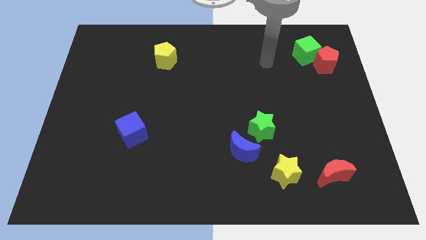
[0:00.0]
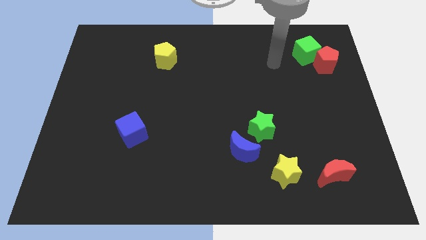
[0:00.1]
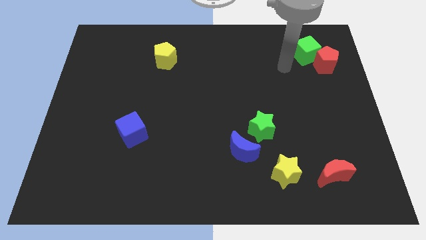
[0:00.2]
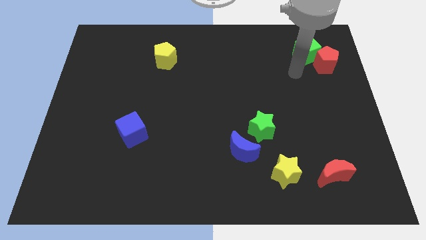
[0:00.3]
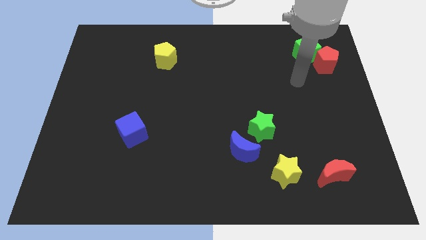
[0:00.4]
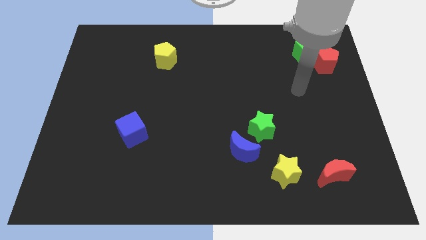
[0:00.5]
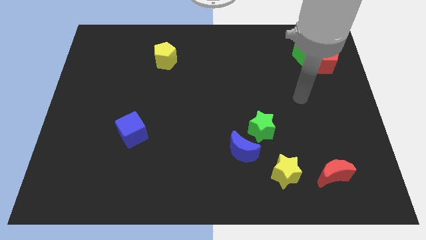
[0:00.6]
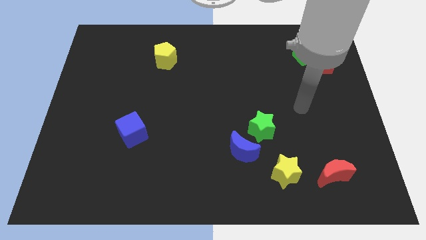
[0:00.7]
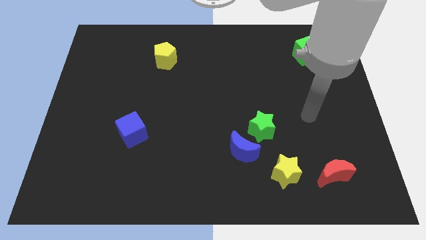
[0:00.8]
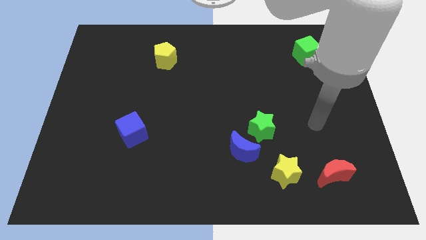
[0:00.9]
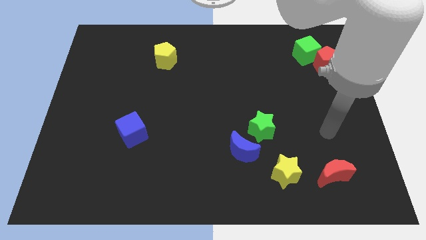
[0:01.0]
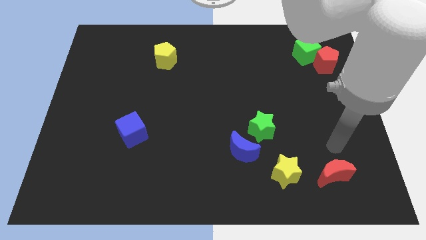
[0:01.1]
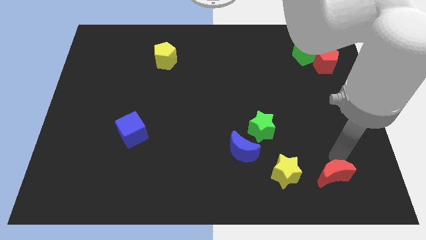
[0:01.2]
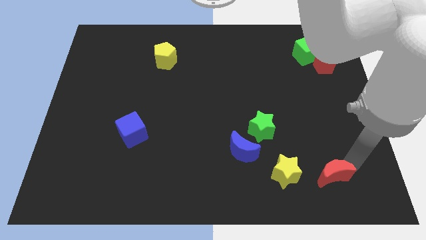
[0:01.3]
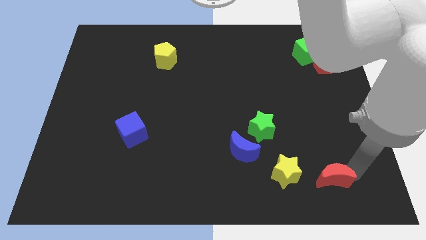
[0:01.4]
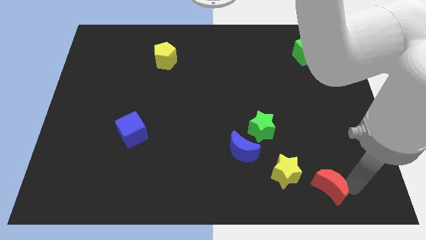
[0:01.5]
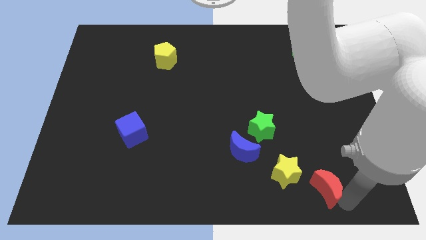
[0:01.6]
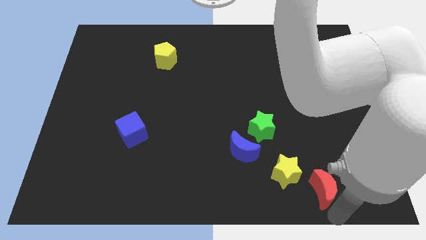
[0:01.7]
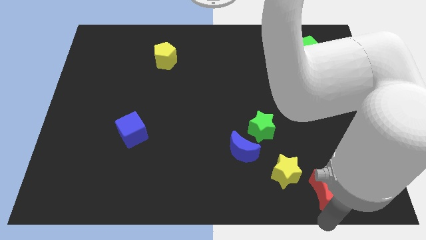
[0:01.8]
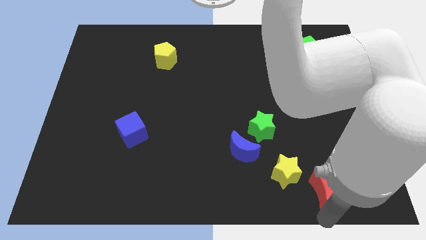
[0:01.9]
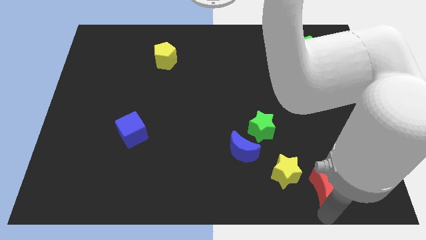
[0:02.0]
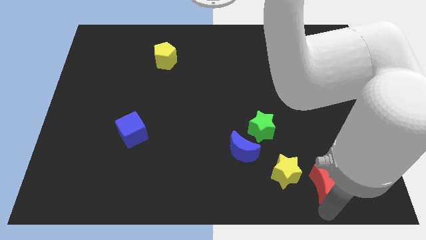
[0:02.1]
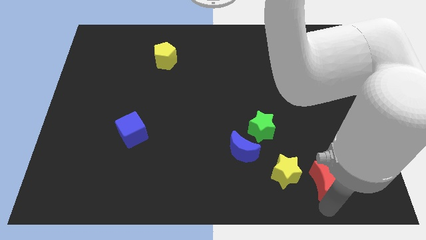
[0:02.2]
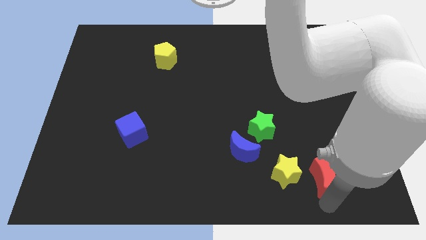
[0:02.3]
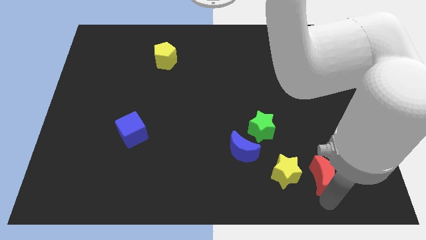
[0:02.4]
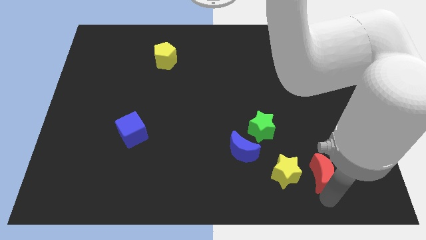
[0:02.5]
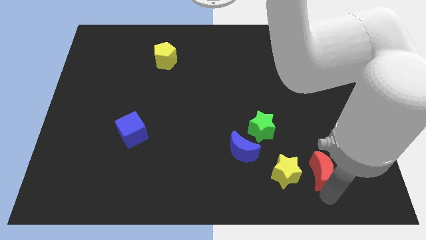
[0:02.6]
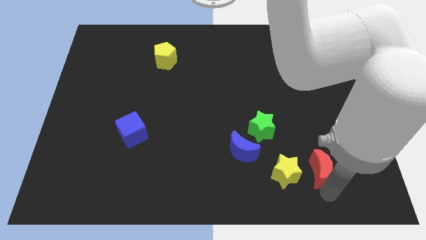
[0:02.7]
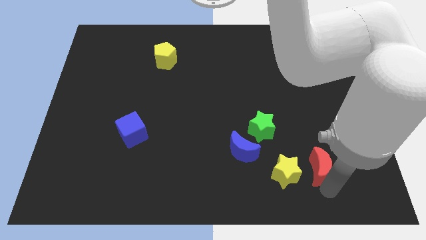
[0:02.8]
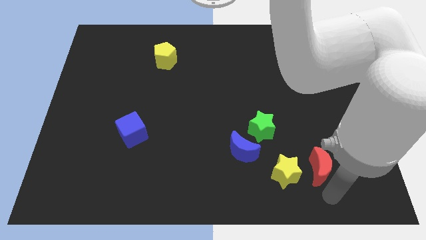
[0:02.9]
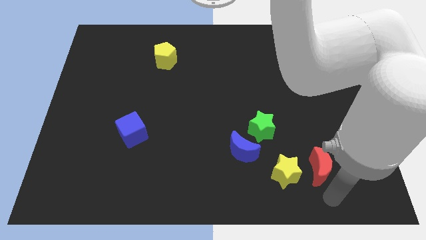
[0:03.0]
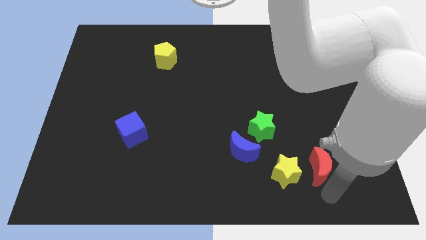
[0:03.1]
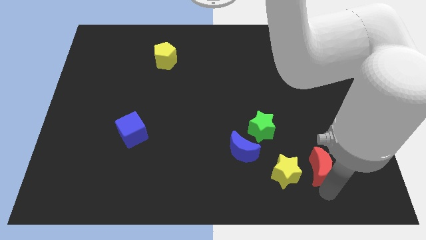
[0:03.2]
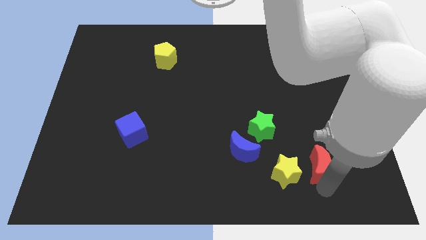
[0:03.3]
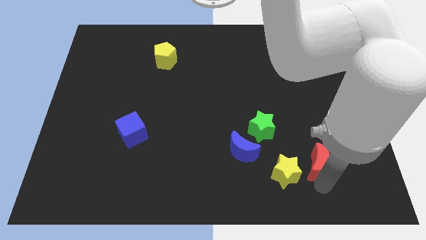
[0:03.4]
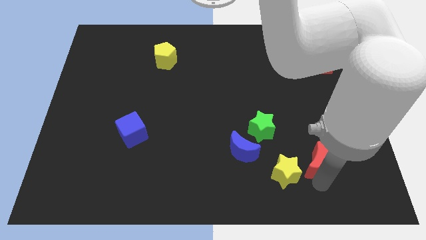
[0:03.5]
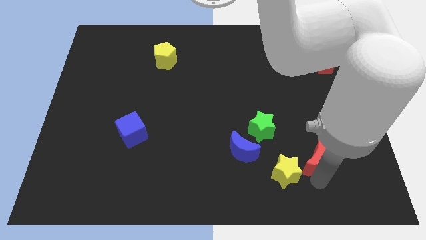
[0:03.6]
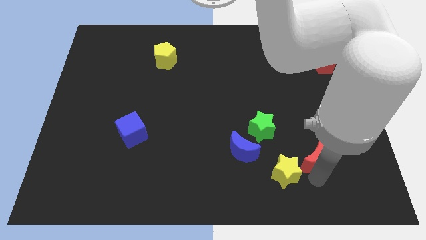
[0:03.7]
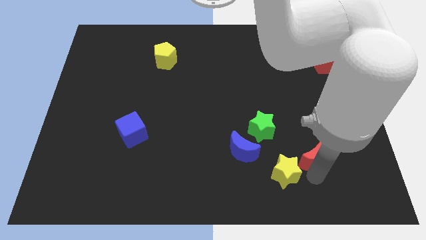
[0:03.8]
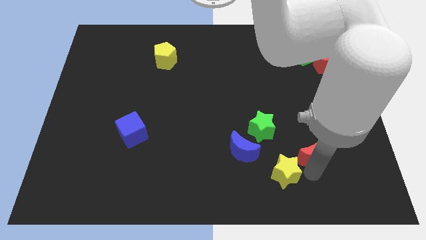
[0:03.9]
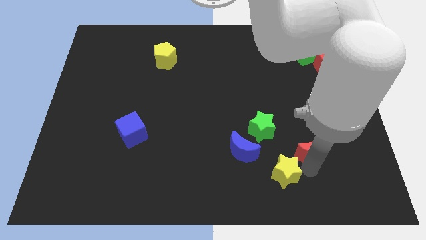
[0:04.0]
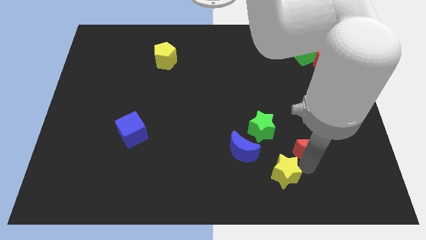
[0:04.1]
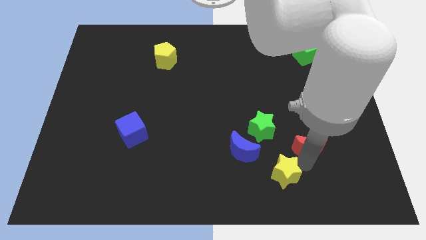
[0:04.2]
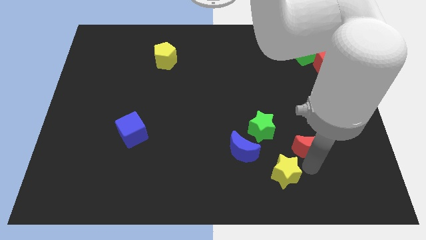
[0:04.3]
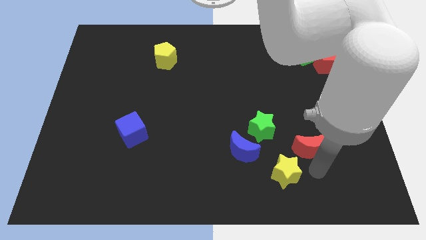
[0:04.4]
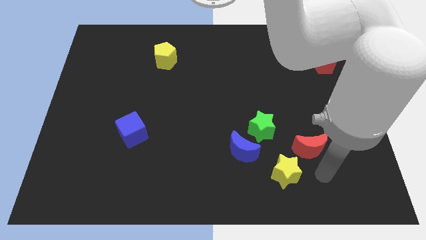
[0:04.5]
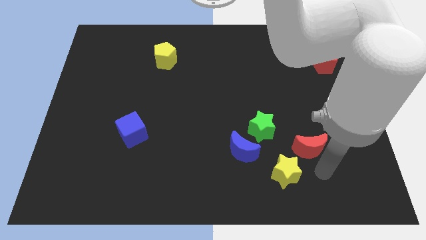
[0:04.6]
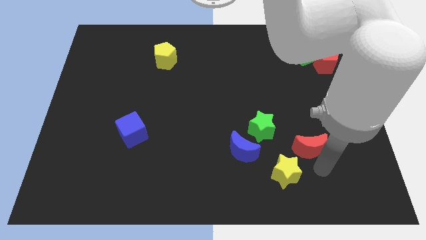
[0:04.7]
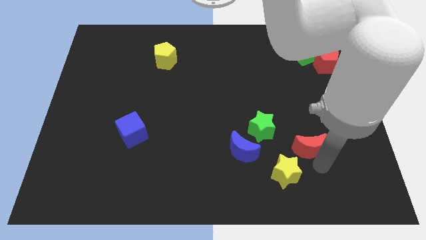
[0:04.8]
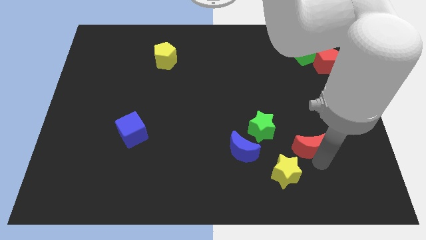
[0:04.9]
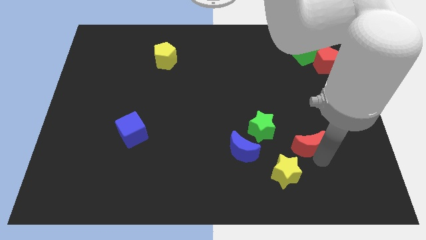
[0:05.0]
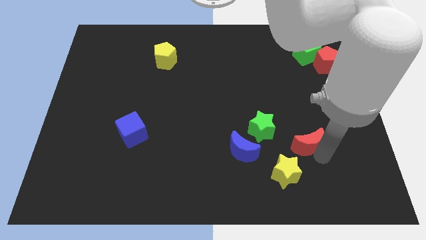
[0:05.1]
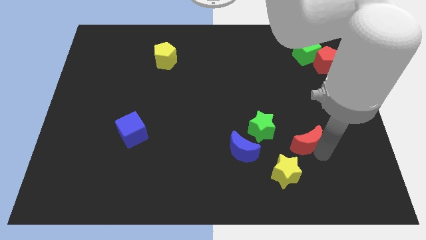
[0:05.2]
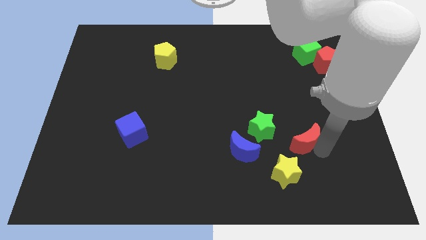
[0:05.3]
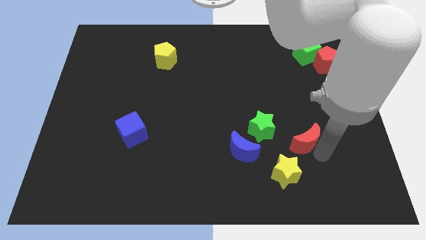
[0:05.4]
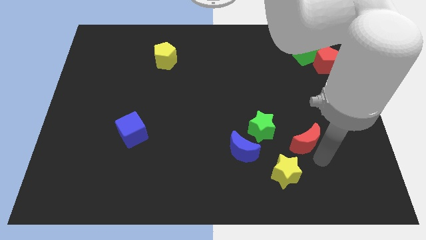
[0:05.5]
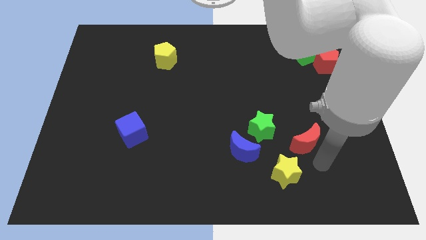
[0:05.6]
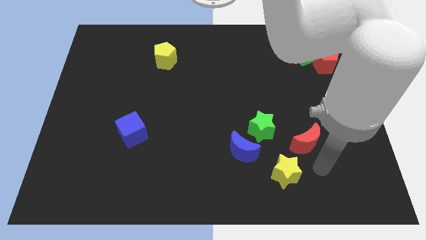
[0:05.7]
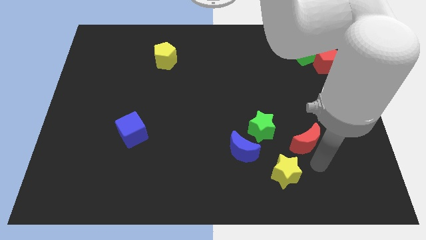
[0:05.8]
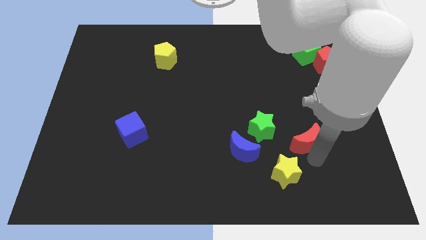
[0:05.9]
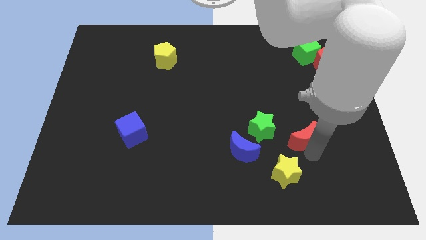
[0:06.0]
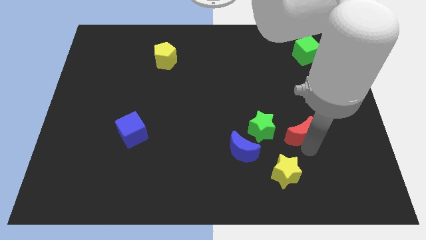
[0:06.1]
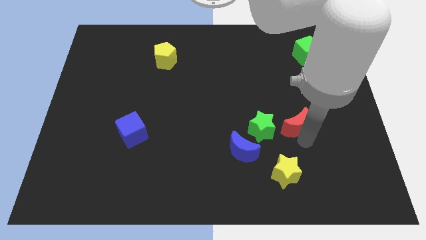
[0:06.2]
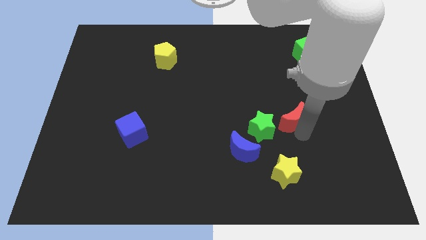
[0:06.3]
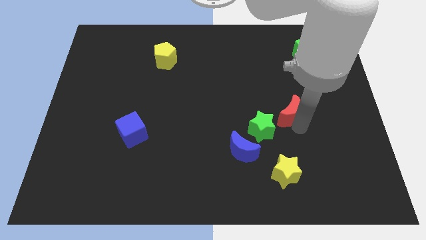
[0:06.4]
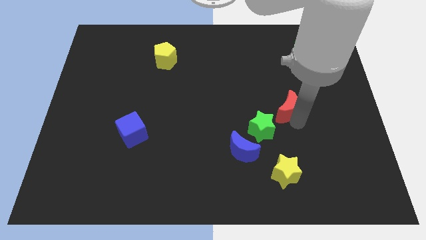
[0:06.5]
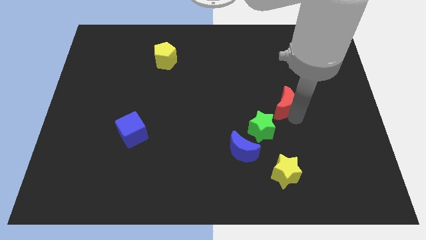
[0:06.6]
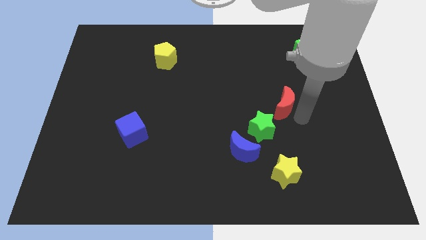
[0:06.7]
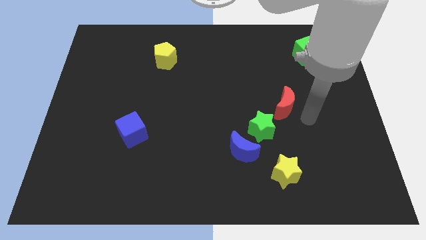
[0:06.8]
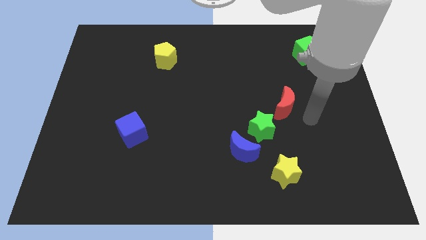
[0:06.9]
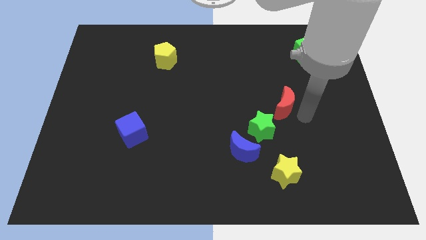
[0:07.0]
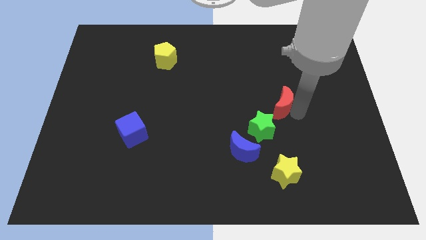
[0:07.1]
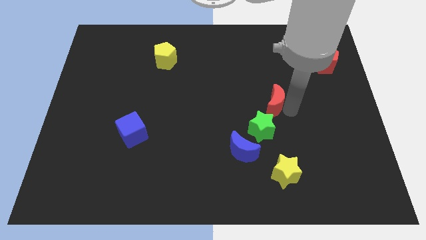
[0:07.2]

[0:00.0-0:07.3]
slide the red moon to the top of the green star

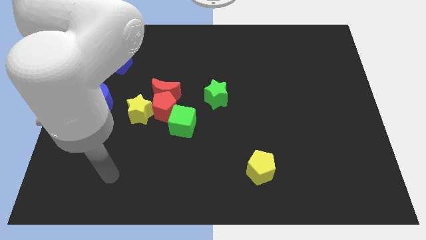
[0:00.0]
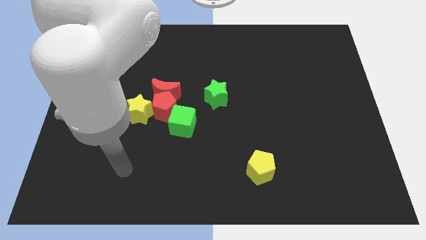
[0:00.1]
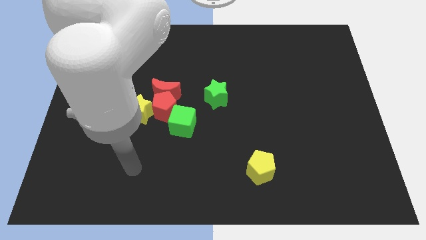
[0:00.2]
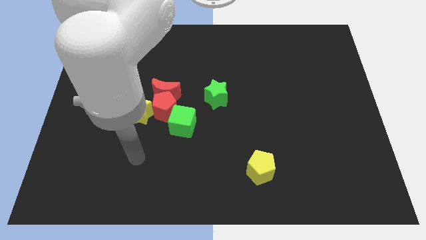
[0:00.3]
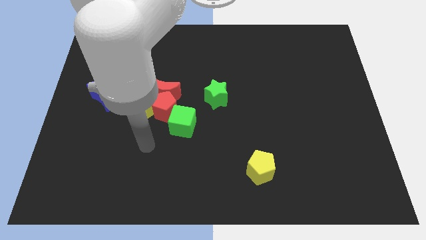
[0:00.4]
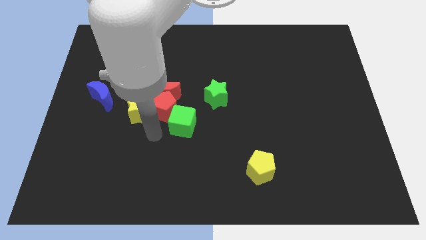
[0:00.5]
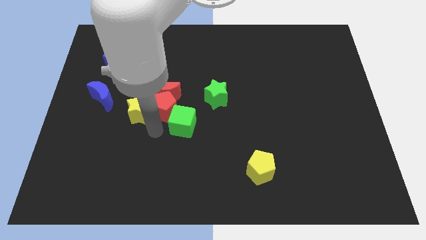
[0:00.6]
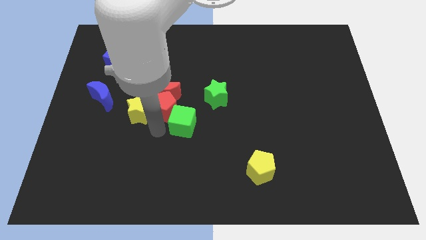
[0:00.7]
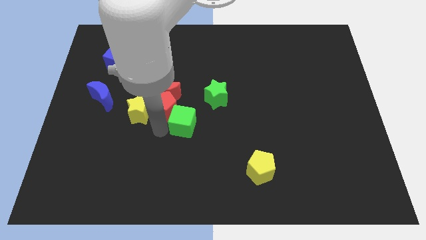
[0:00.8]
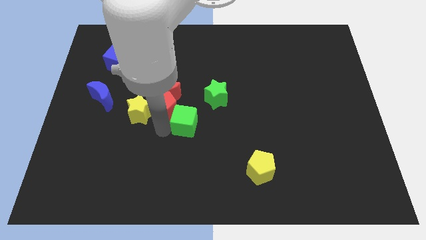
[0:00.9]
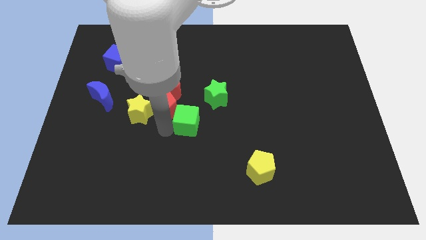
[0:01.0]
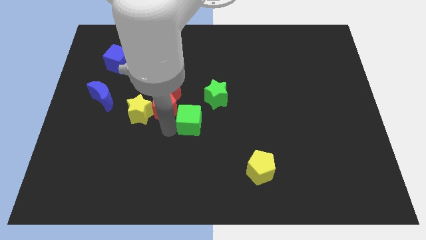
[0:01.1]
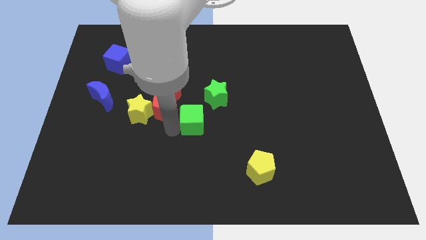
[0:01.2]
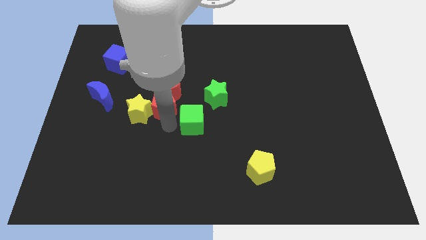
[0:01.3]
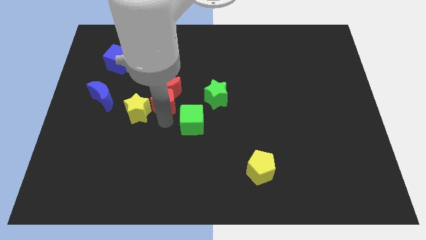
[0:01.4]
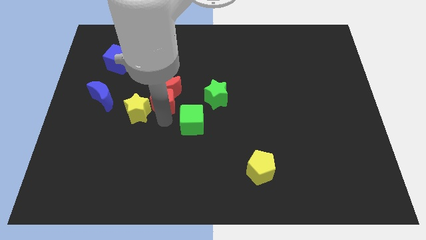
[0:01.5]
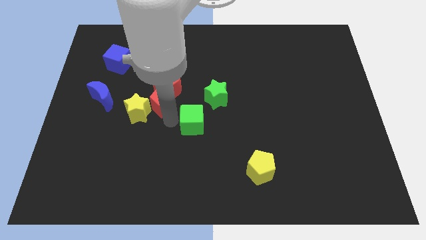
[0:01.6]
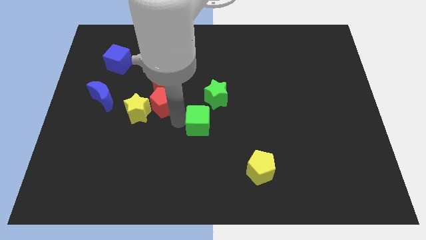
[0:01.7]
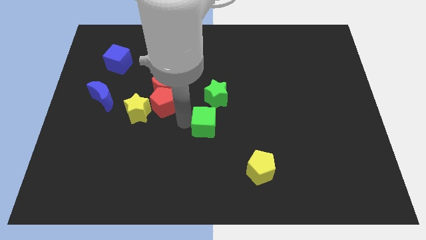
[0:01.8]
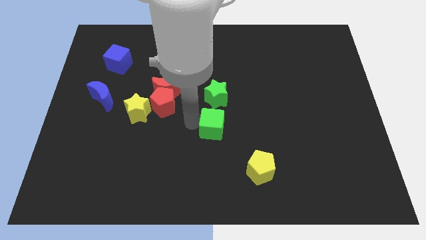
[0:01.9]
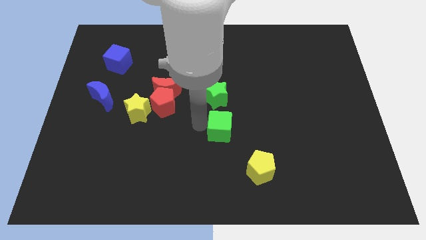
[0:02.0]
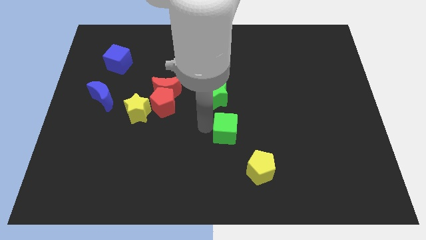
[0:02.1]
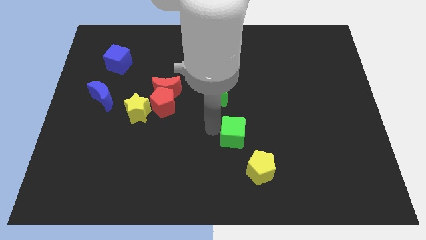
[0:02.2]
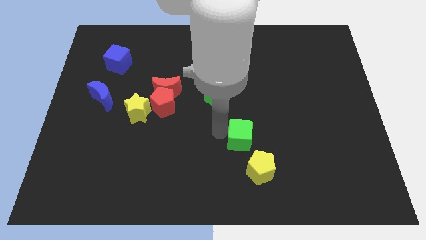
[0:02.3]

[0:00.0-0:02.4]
move the green cube to the top of the yellow pentagon
